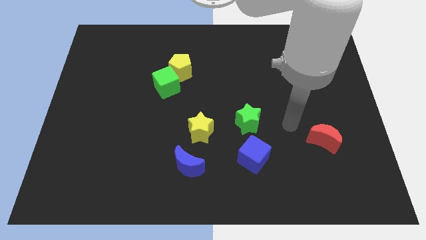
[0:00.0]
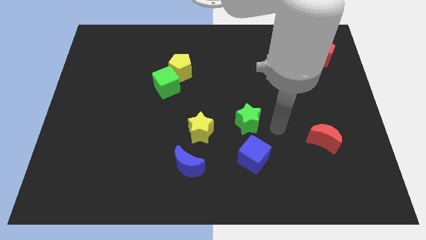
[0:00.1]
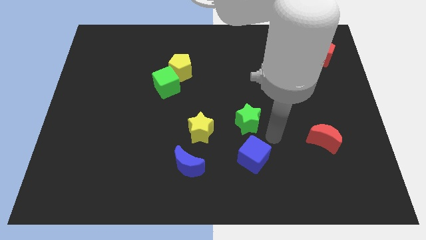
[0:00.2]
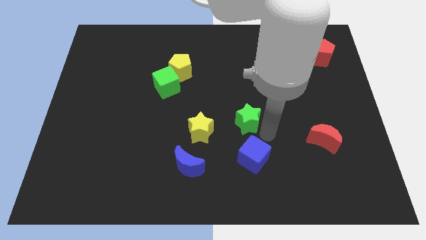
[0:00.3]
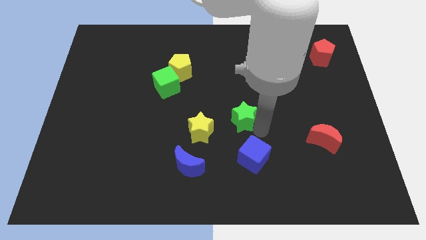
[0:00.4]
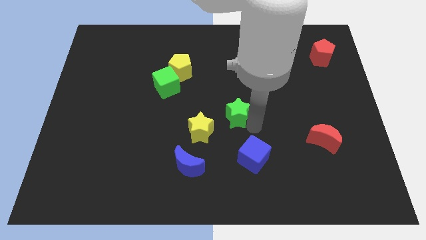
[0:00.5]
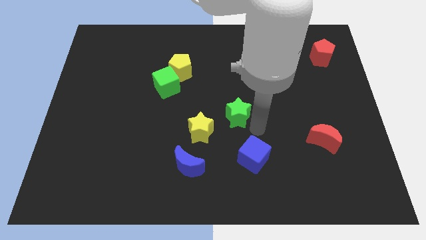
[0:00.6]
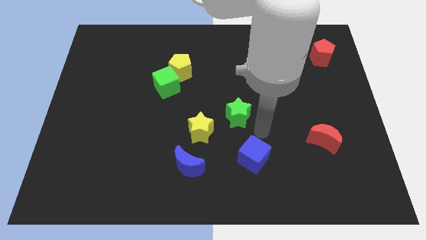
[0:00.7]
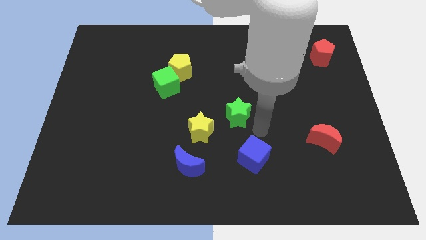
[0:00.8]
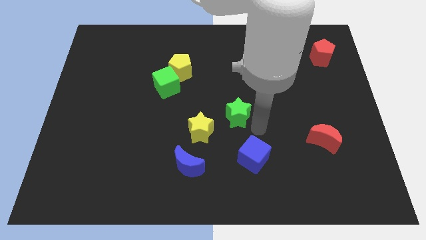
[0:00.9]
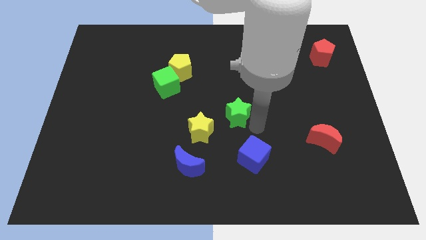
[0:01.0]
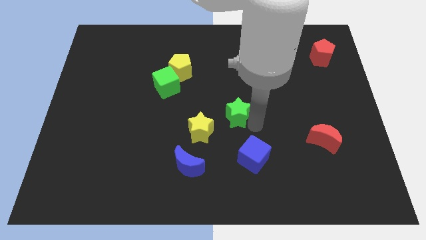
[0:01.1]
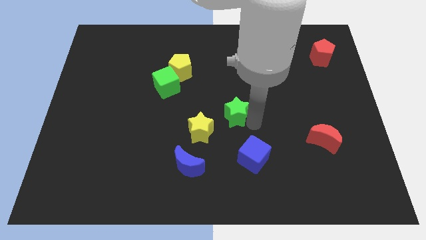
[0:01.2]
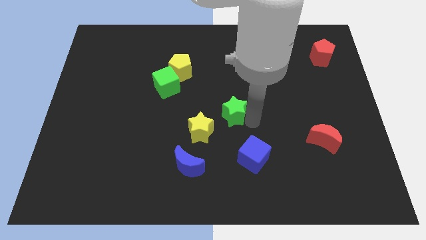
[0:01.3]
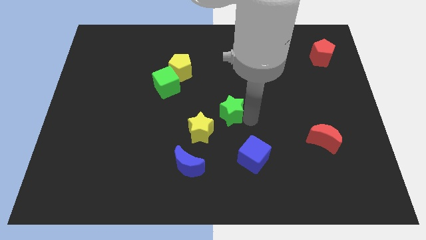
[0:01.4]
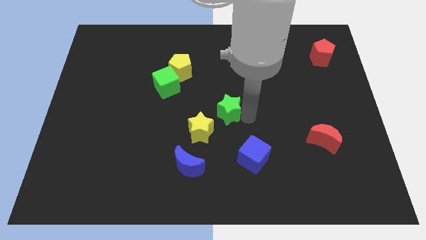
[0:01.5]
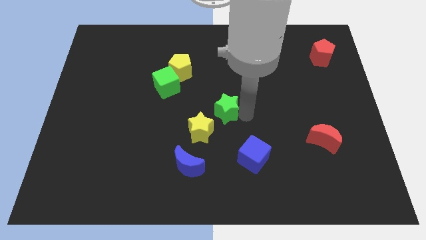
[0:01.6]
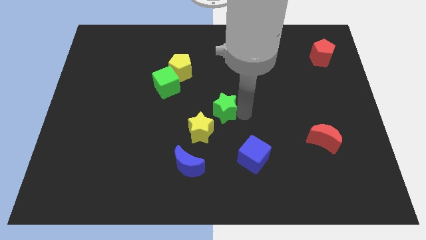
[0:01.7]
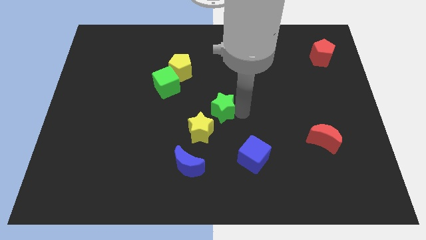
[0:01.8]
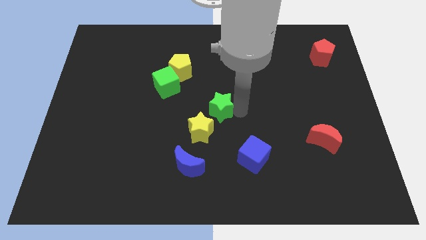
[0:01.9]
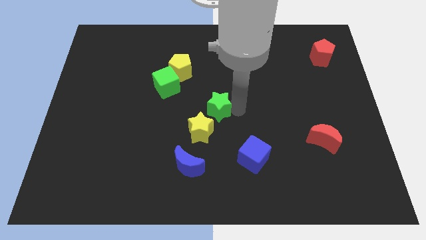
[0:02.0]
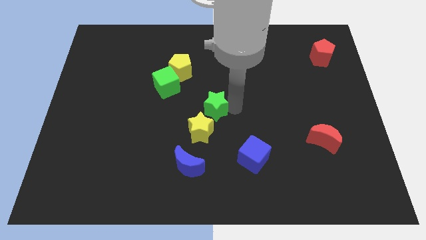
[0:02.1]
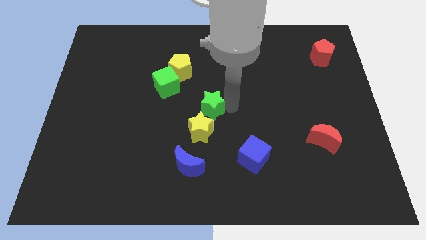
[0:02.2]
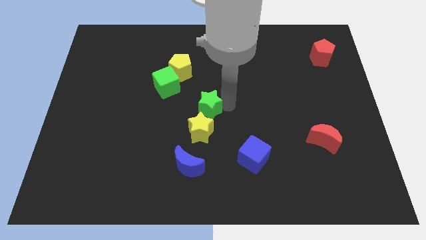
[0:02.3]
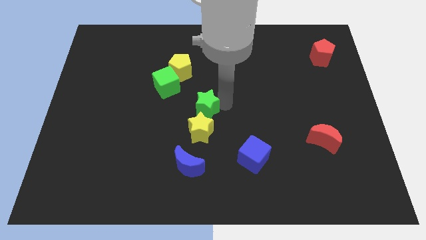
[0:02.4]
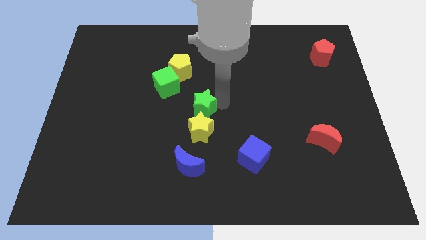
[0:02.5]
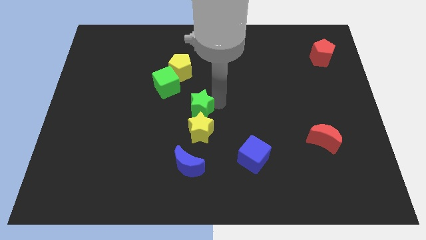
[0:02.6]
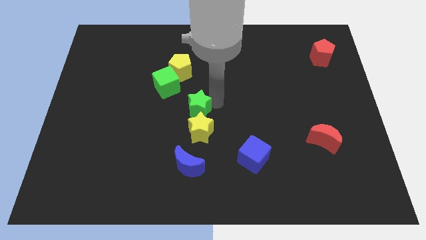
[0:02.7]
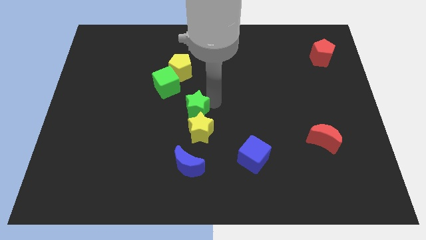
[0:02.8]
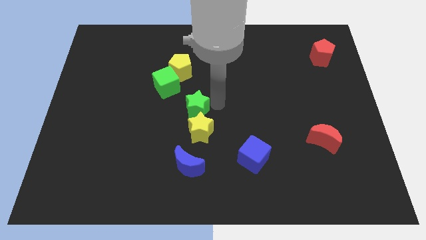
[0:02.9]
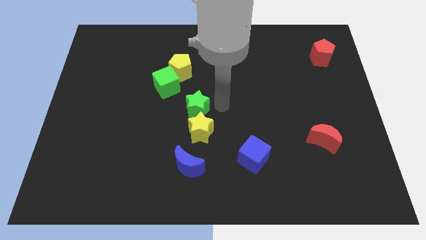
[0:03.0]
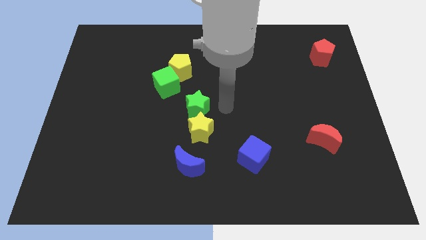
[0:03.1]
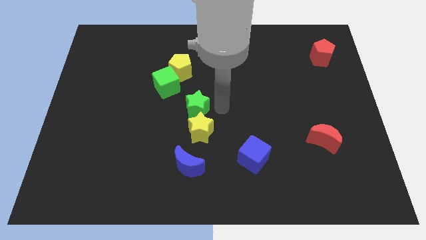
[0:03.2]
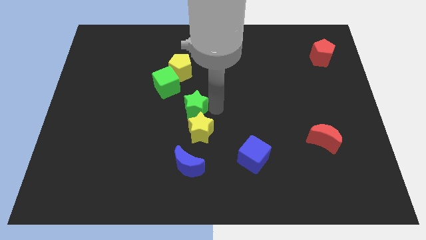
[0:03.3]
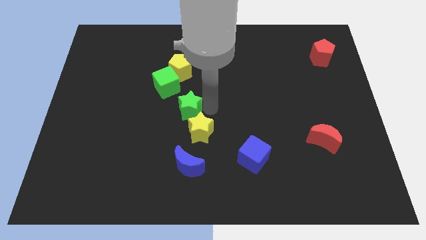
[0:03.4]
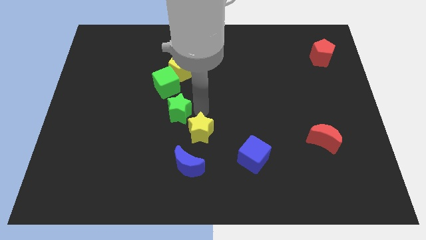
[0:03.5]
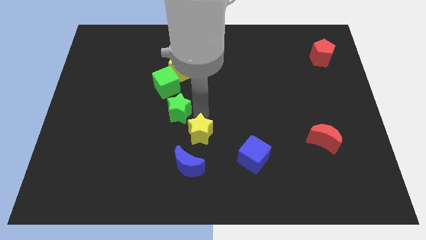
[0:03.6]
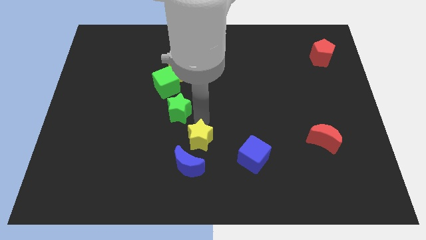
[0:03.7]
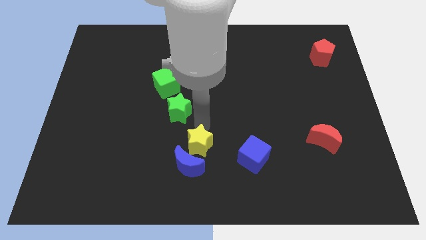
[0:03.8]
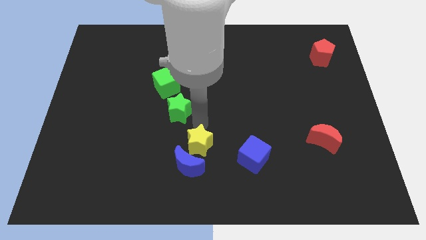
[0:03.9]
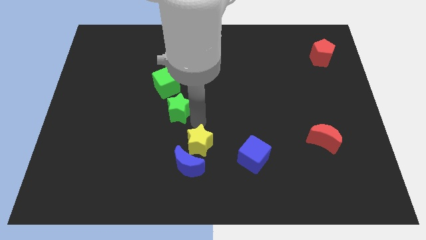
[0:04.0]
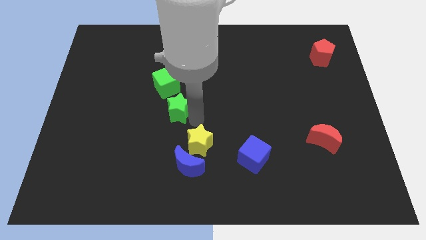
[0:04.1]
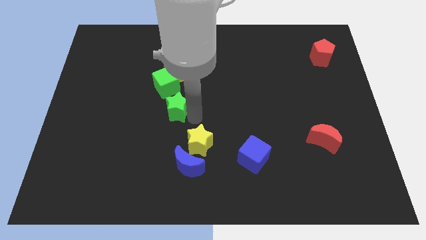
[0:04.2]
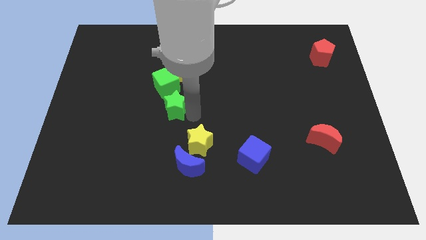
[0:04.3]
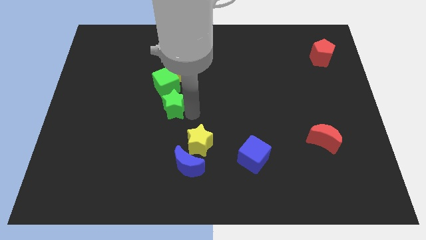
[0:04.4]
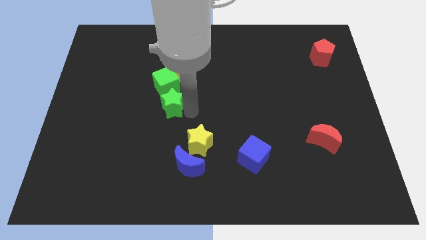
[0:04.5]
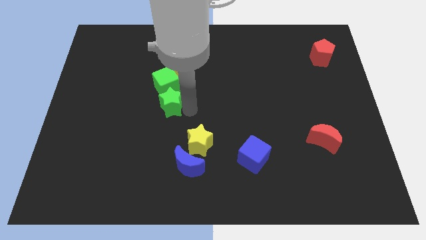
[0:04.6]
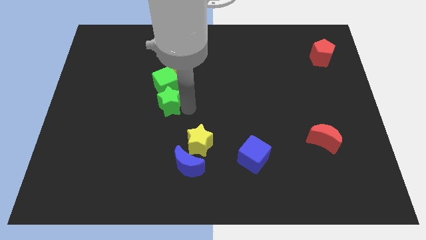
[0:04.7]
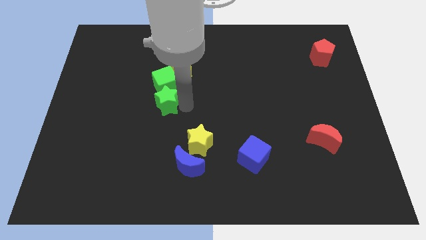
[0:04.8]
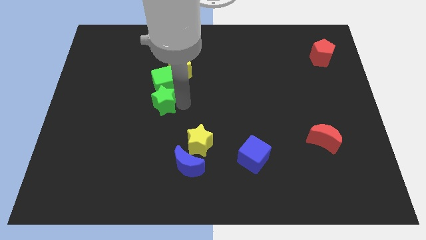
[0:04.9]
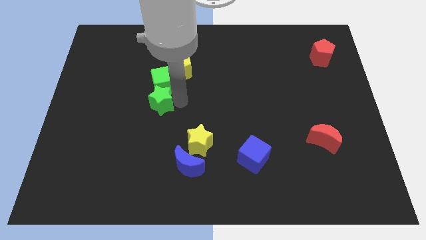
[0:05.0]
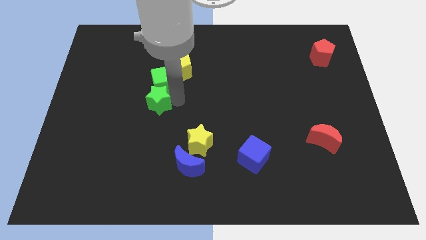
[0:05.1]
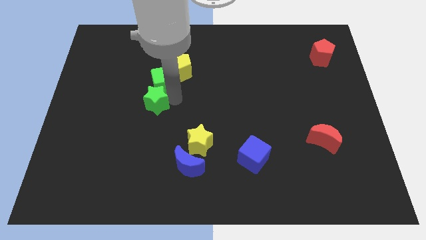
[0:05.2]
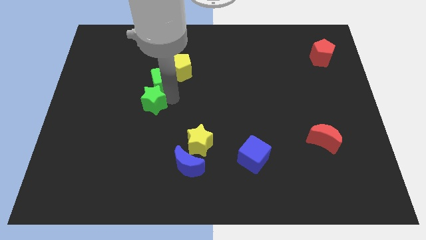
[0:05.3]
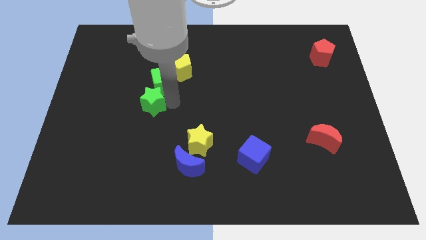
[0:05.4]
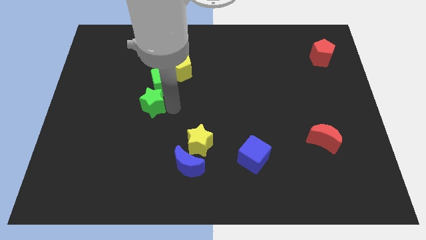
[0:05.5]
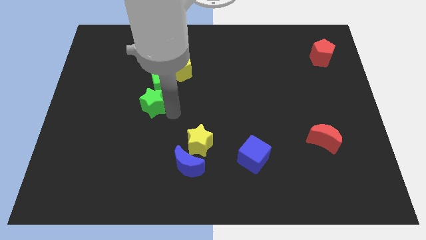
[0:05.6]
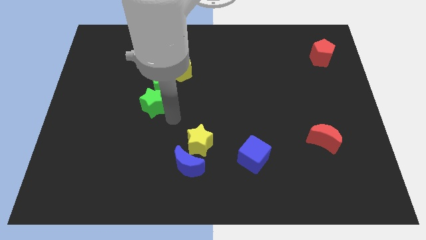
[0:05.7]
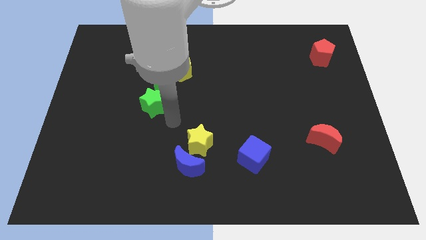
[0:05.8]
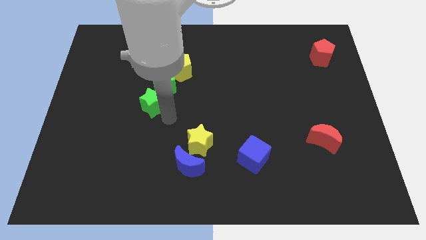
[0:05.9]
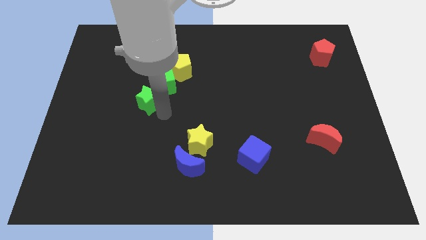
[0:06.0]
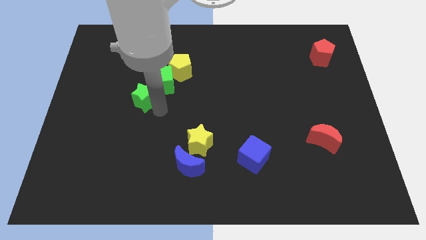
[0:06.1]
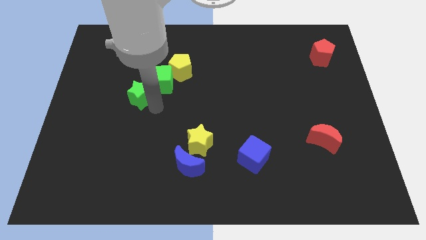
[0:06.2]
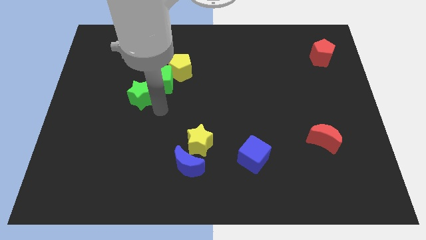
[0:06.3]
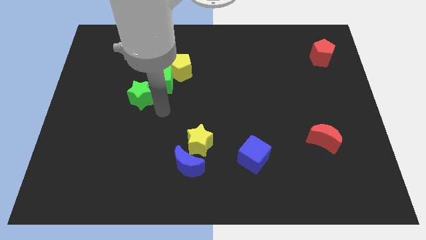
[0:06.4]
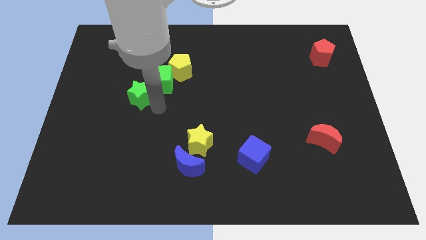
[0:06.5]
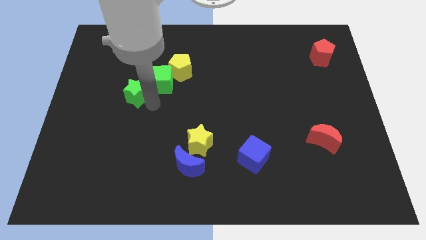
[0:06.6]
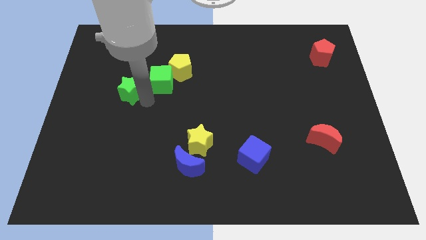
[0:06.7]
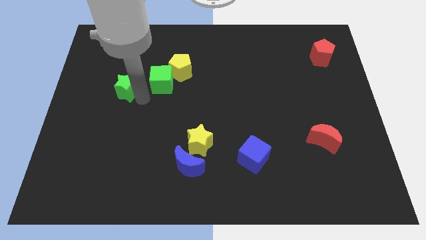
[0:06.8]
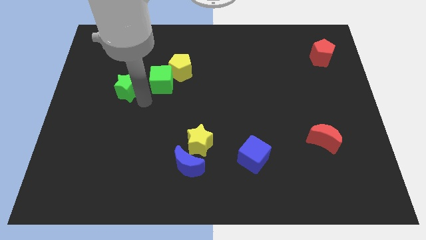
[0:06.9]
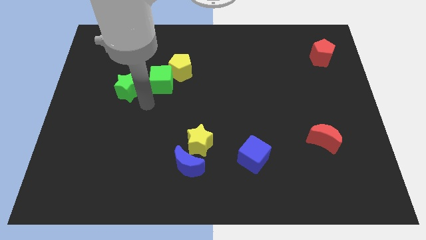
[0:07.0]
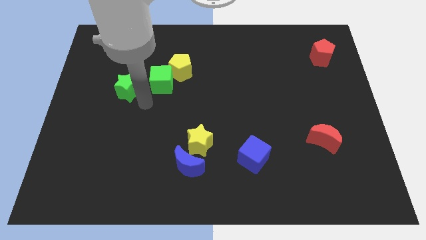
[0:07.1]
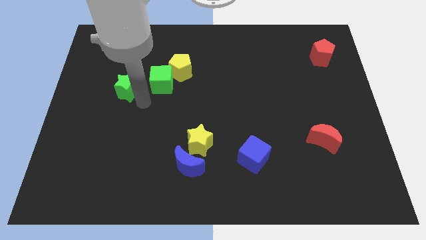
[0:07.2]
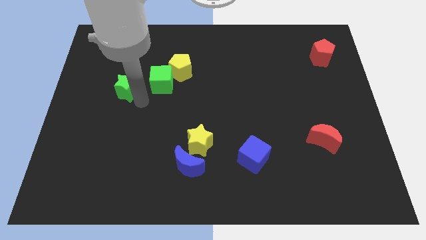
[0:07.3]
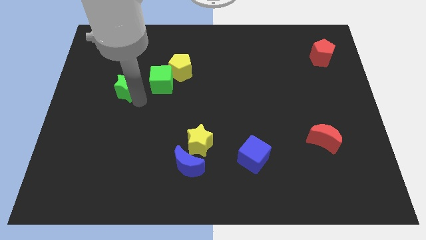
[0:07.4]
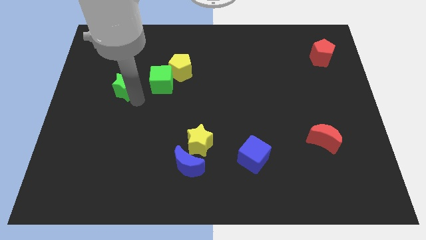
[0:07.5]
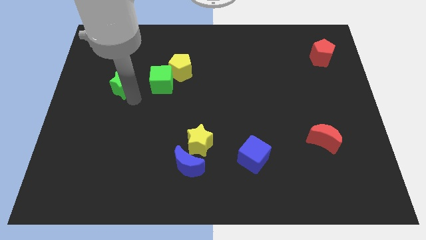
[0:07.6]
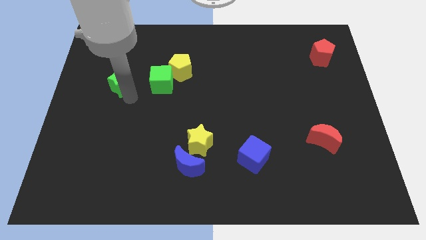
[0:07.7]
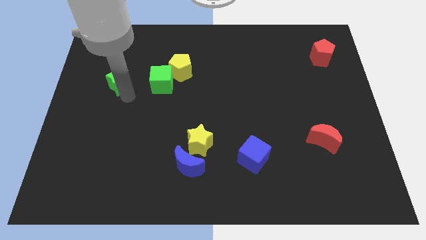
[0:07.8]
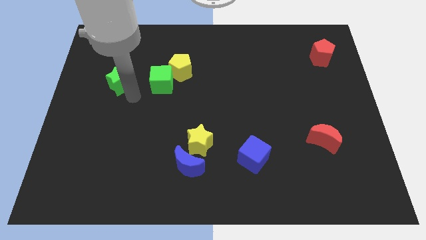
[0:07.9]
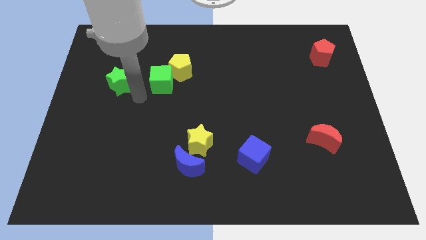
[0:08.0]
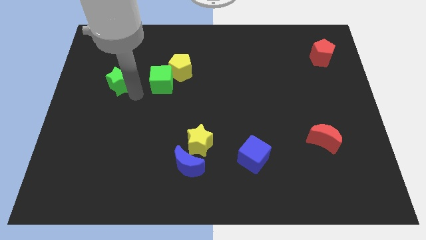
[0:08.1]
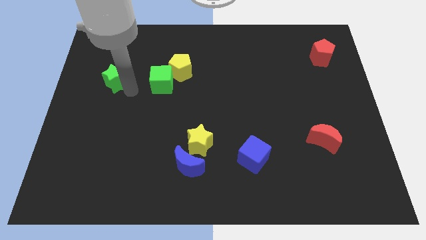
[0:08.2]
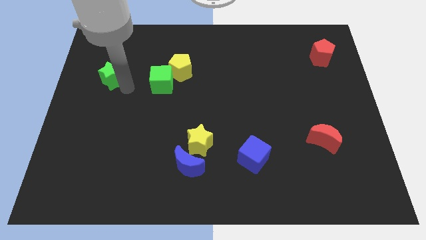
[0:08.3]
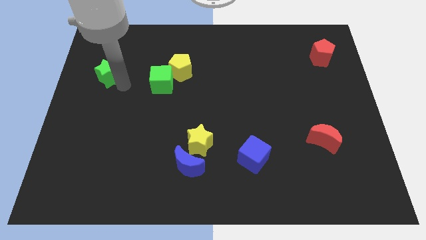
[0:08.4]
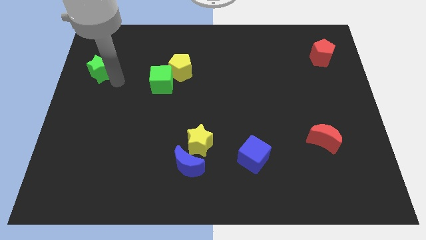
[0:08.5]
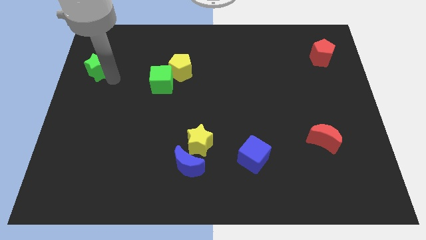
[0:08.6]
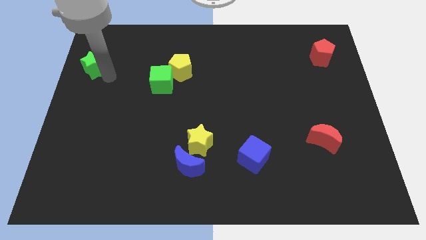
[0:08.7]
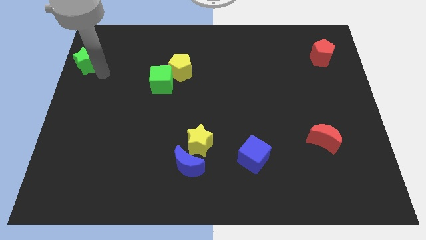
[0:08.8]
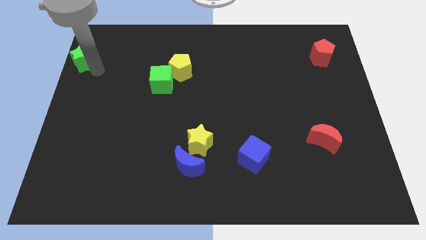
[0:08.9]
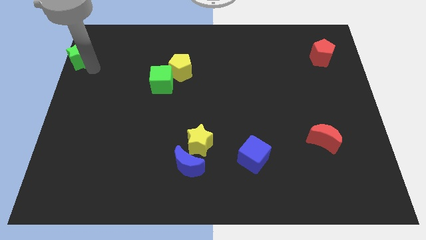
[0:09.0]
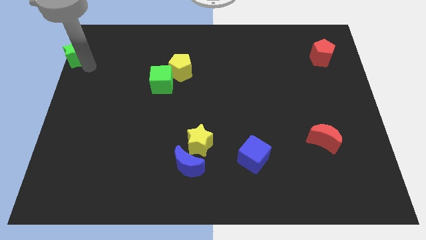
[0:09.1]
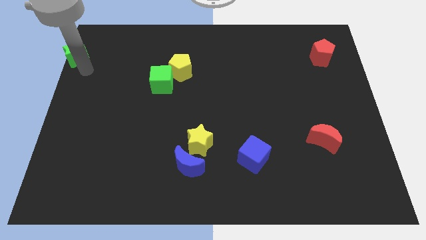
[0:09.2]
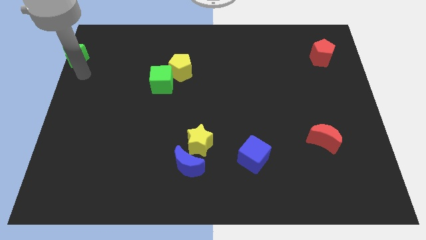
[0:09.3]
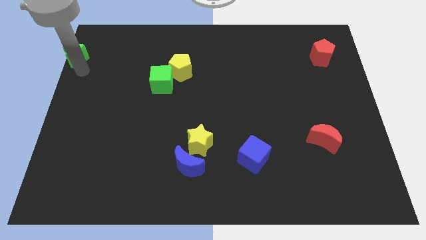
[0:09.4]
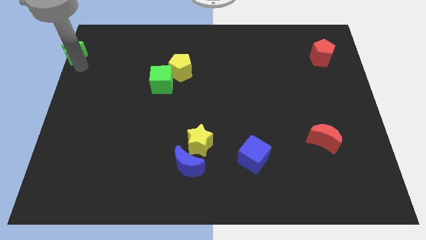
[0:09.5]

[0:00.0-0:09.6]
put the green star to the top left of the board
